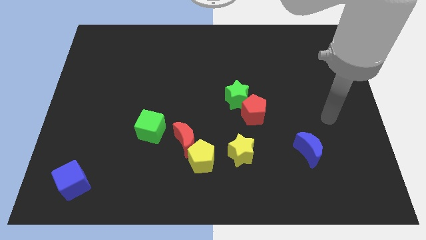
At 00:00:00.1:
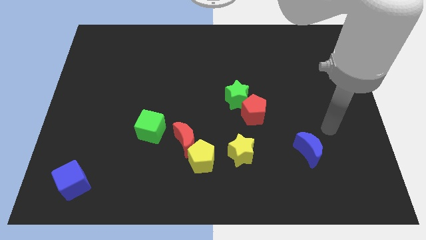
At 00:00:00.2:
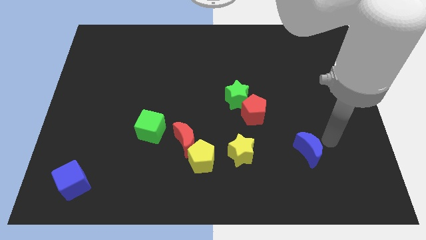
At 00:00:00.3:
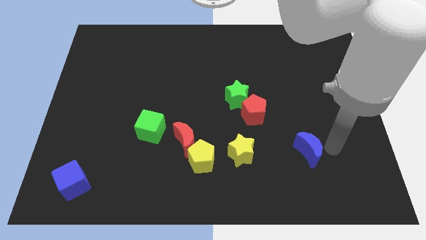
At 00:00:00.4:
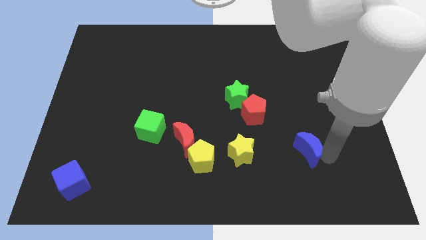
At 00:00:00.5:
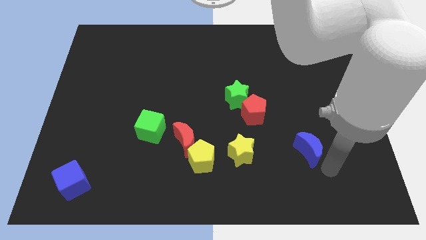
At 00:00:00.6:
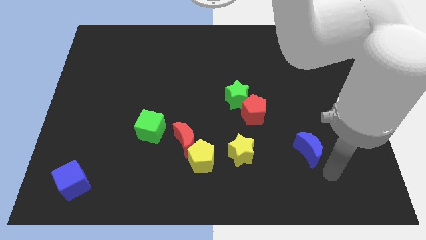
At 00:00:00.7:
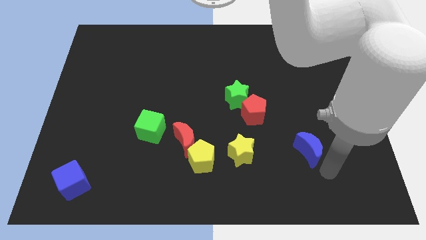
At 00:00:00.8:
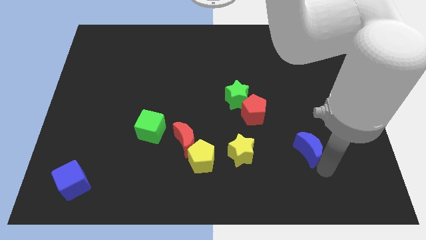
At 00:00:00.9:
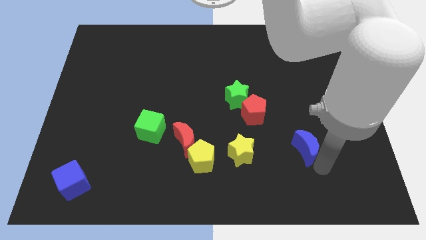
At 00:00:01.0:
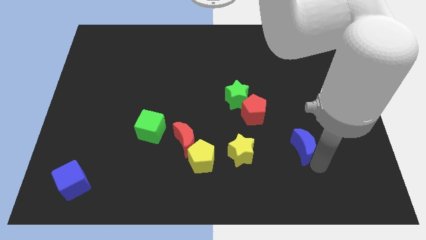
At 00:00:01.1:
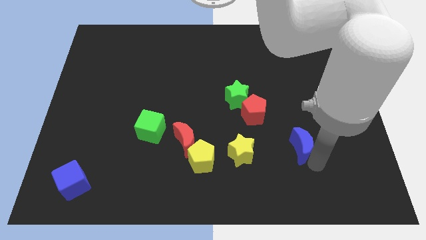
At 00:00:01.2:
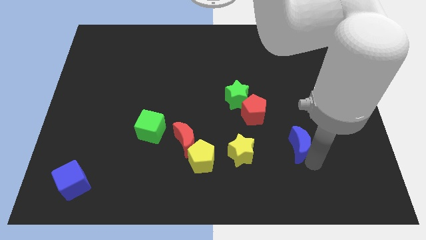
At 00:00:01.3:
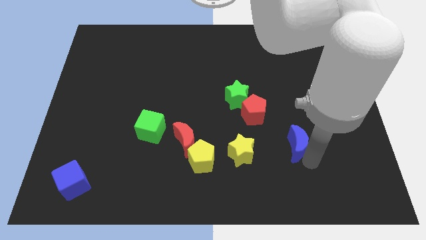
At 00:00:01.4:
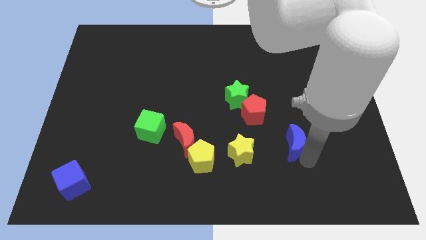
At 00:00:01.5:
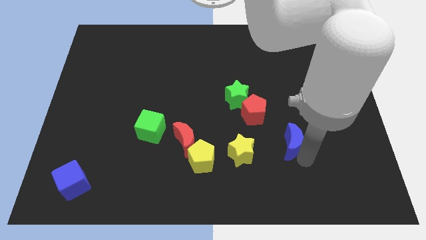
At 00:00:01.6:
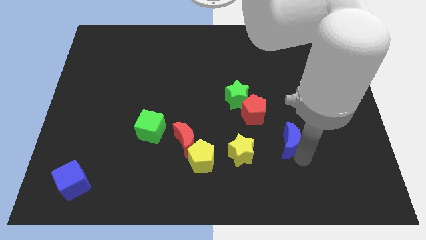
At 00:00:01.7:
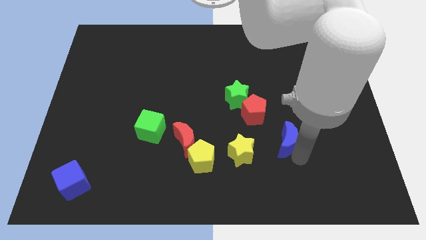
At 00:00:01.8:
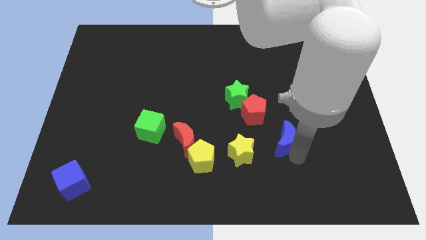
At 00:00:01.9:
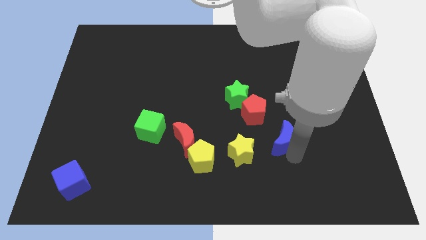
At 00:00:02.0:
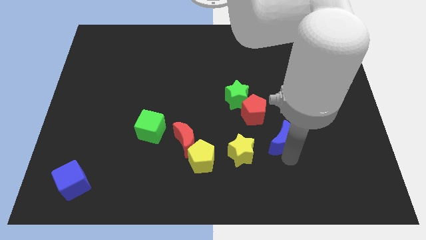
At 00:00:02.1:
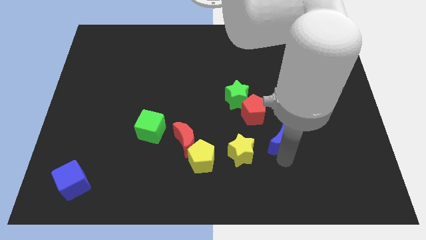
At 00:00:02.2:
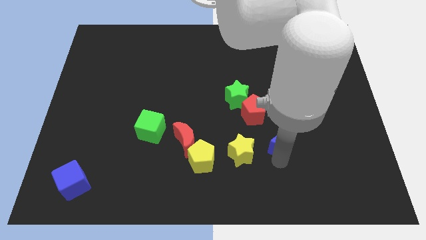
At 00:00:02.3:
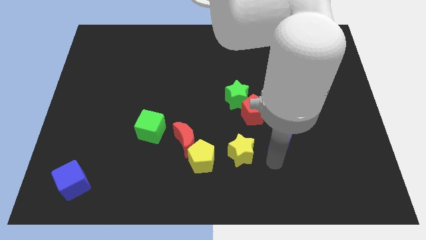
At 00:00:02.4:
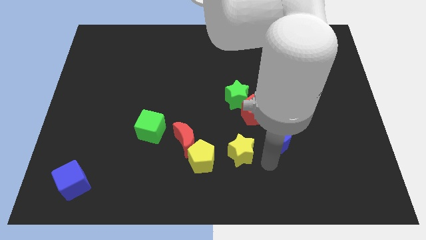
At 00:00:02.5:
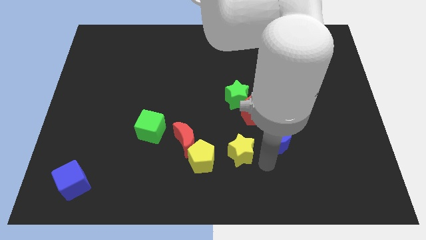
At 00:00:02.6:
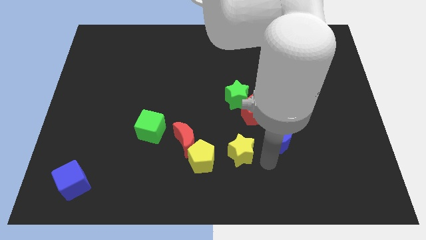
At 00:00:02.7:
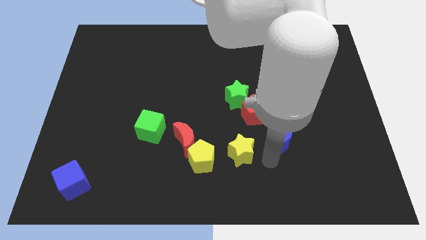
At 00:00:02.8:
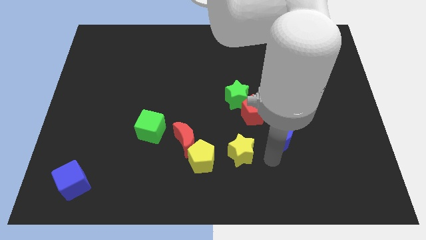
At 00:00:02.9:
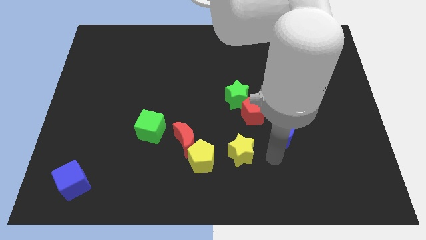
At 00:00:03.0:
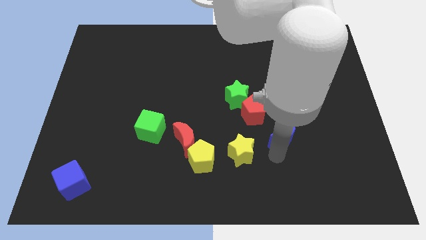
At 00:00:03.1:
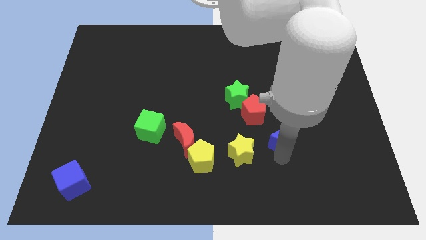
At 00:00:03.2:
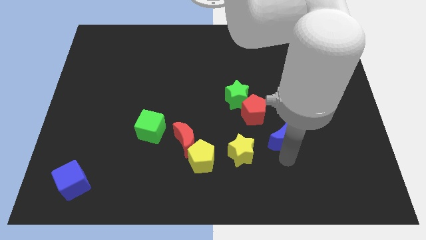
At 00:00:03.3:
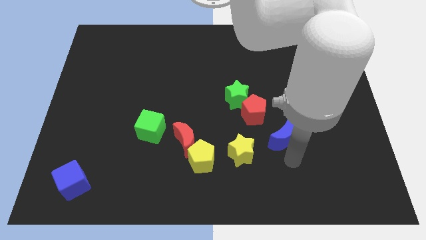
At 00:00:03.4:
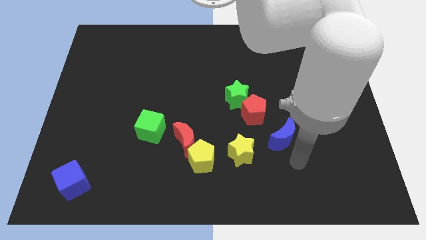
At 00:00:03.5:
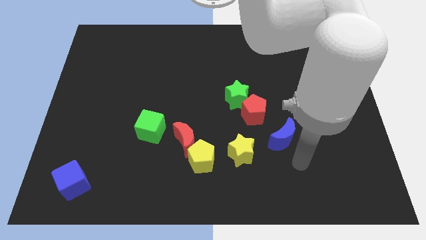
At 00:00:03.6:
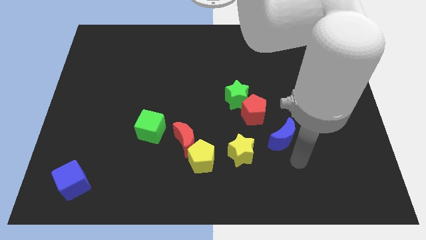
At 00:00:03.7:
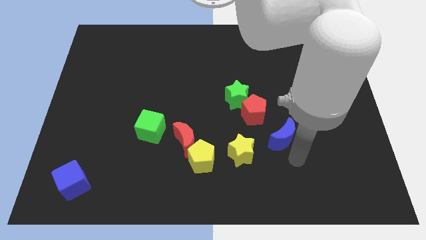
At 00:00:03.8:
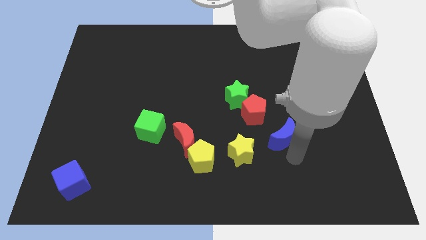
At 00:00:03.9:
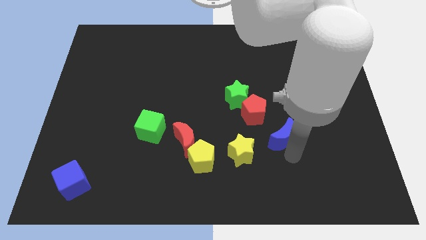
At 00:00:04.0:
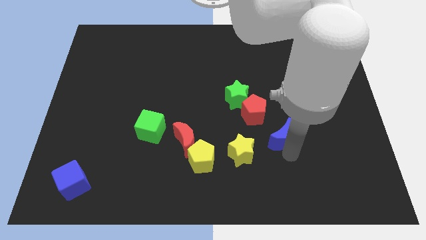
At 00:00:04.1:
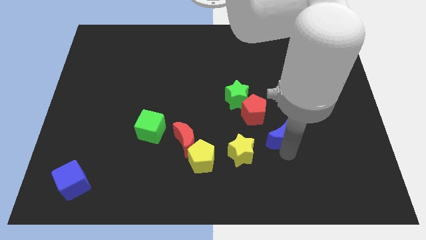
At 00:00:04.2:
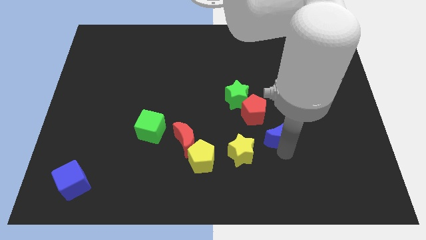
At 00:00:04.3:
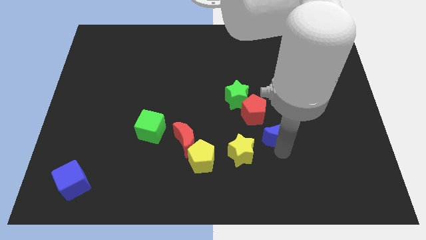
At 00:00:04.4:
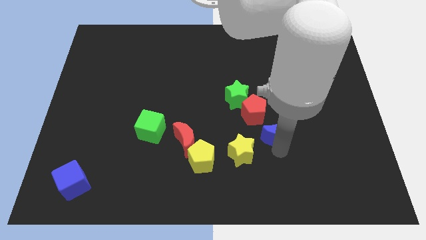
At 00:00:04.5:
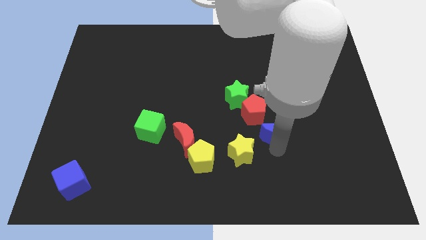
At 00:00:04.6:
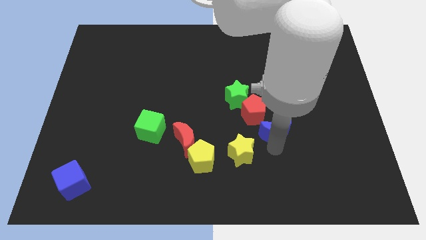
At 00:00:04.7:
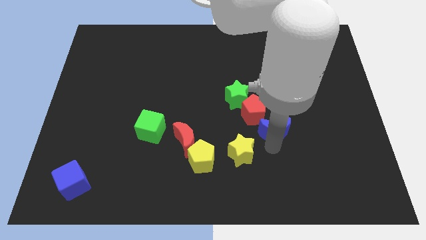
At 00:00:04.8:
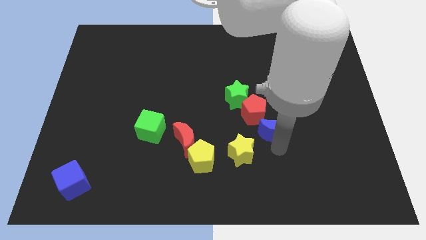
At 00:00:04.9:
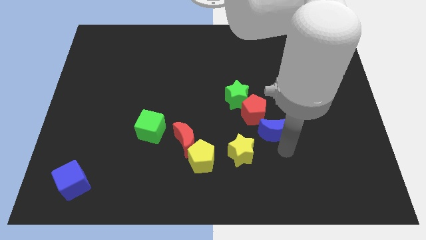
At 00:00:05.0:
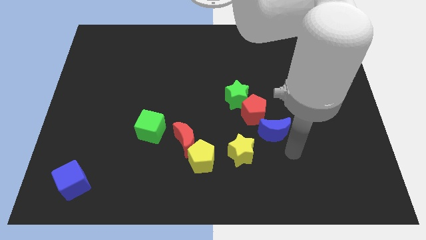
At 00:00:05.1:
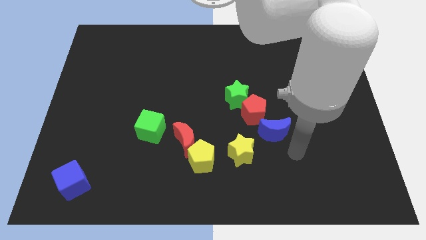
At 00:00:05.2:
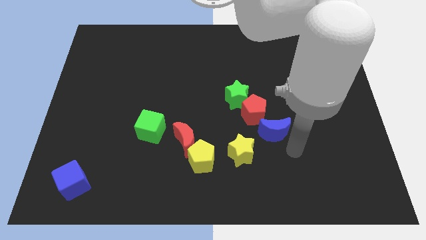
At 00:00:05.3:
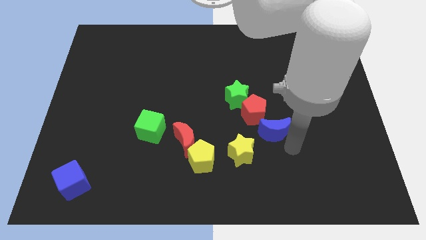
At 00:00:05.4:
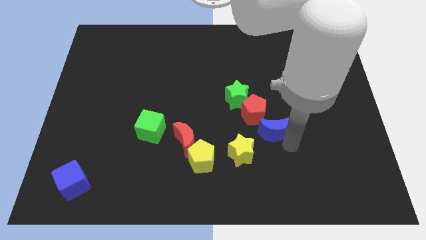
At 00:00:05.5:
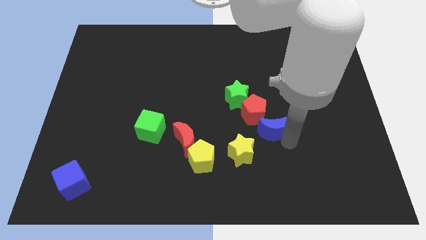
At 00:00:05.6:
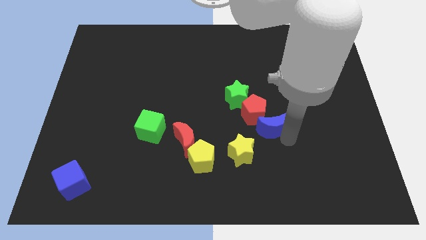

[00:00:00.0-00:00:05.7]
push the blue moon towards the red pentagon

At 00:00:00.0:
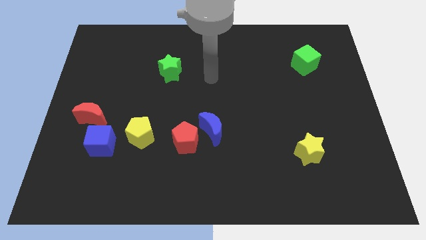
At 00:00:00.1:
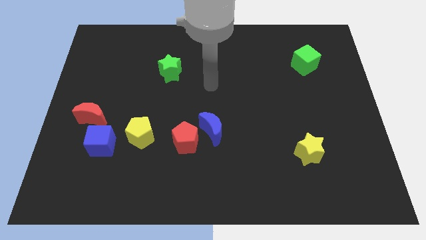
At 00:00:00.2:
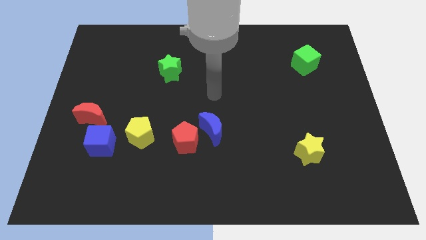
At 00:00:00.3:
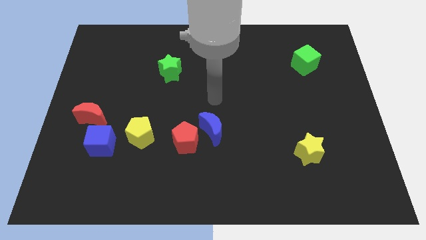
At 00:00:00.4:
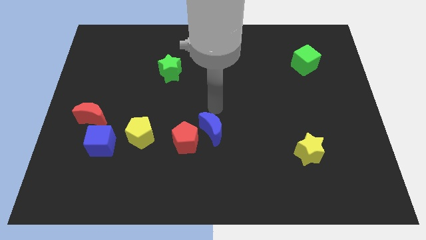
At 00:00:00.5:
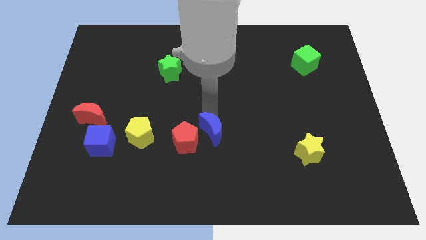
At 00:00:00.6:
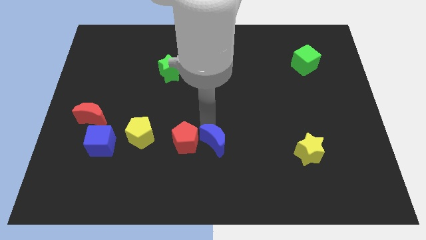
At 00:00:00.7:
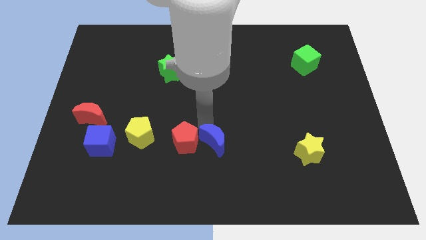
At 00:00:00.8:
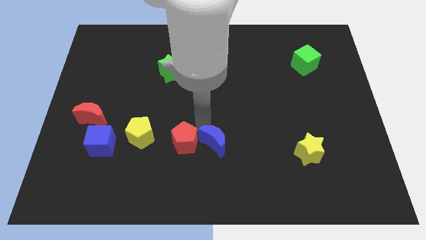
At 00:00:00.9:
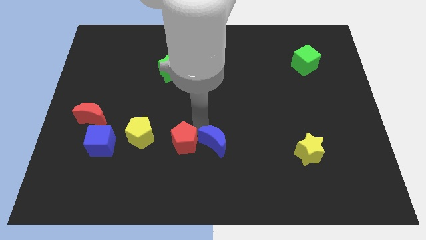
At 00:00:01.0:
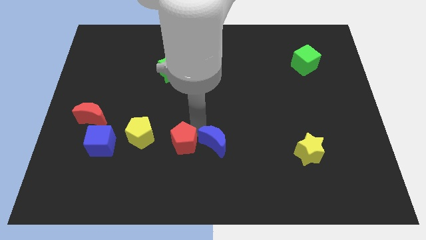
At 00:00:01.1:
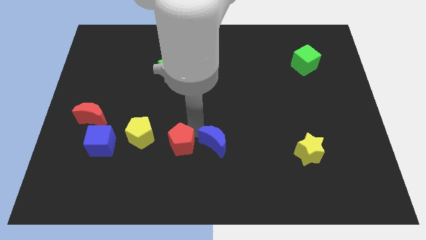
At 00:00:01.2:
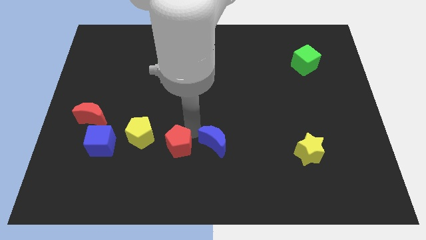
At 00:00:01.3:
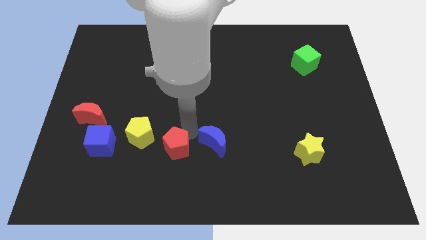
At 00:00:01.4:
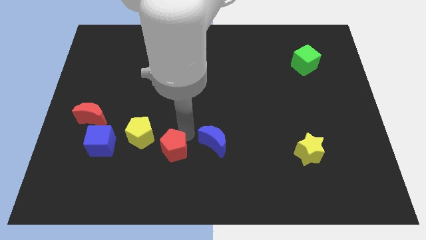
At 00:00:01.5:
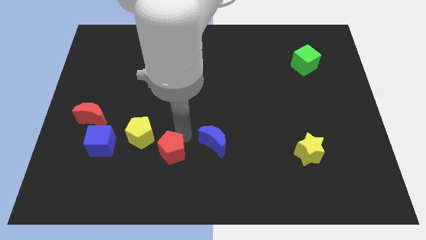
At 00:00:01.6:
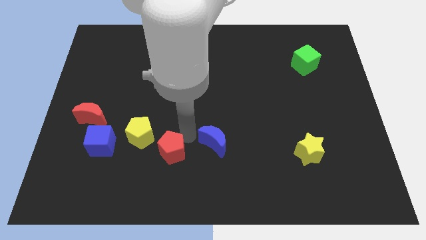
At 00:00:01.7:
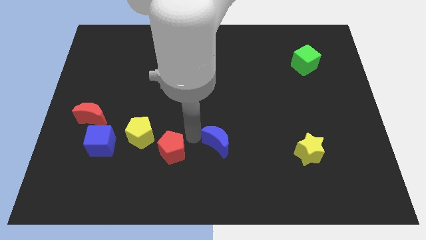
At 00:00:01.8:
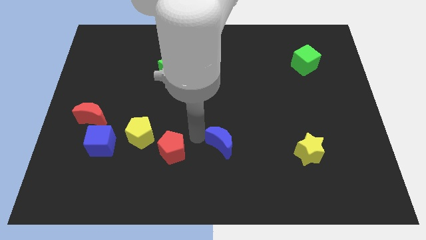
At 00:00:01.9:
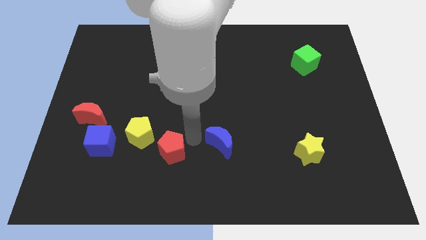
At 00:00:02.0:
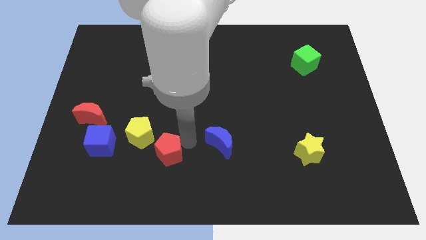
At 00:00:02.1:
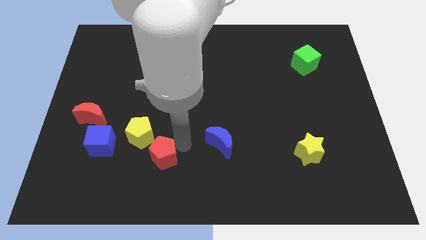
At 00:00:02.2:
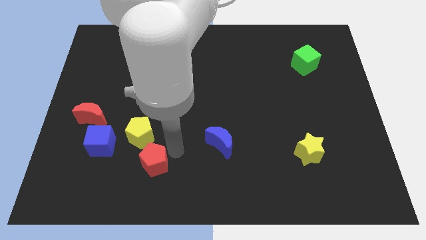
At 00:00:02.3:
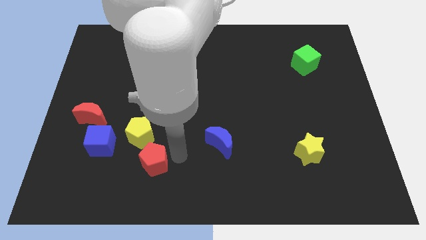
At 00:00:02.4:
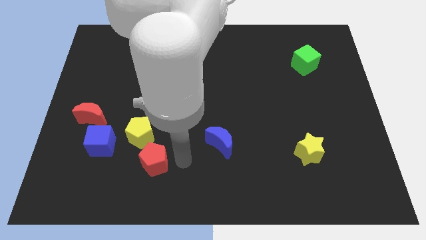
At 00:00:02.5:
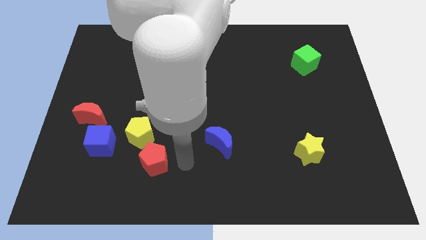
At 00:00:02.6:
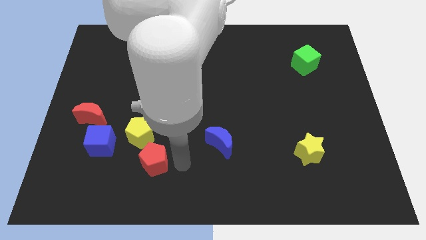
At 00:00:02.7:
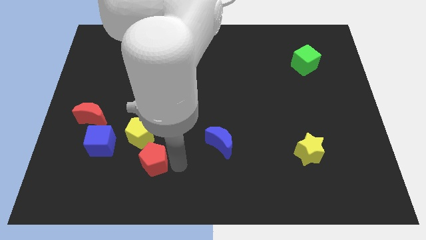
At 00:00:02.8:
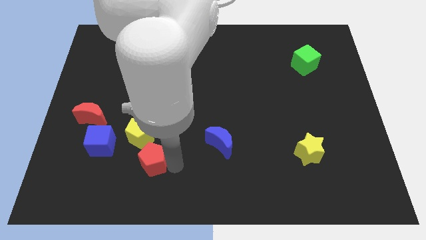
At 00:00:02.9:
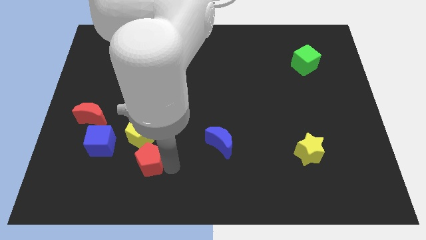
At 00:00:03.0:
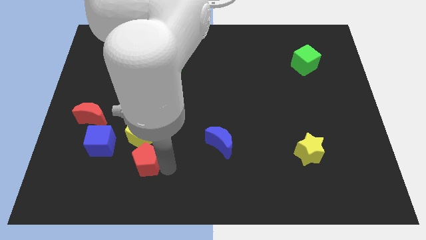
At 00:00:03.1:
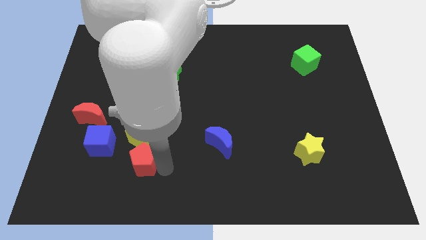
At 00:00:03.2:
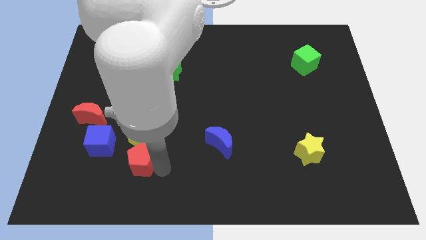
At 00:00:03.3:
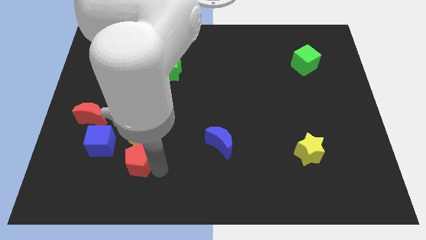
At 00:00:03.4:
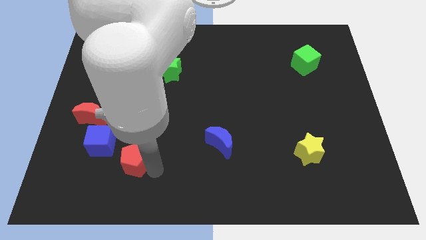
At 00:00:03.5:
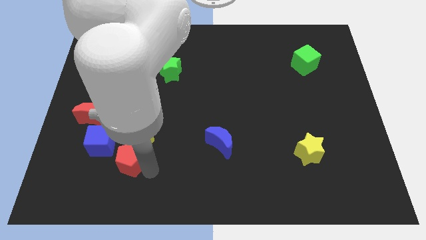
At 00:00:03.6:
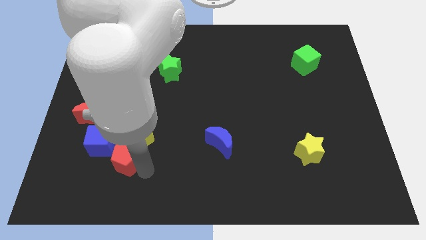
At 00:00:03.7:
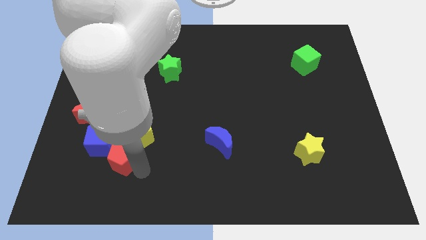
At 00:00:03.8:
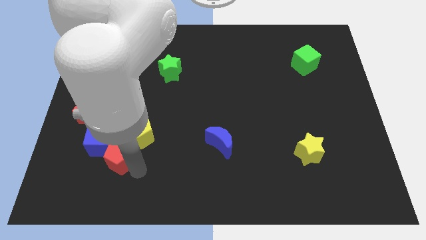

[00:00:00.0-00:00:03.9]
slide the red pentagon close to the blue cube
